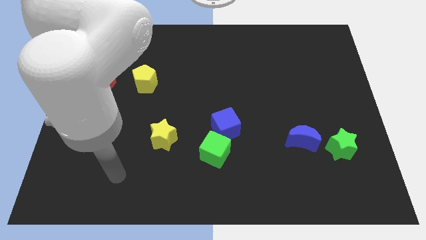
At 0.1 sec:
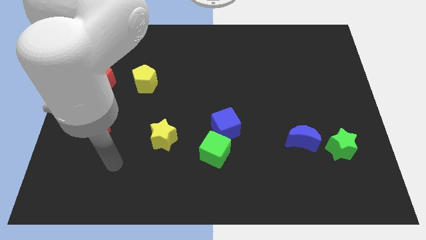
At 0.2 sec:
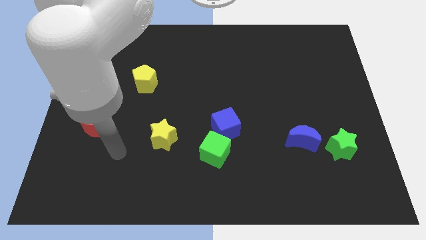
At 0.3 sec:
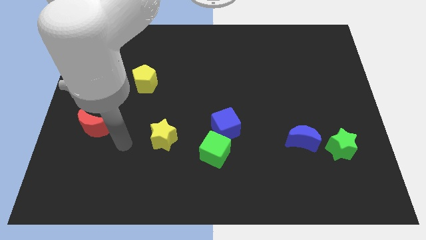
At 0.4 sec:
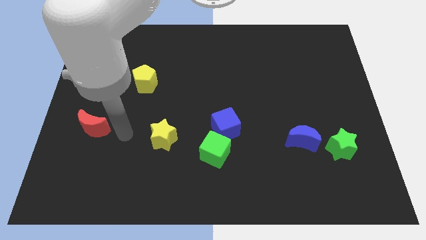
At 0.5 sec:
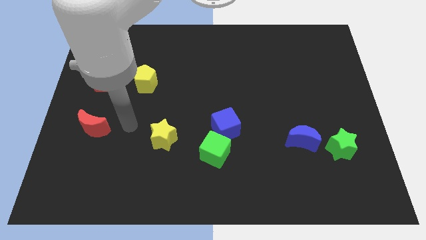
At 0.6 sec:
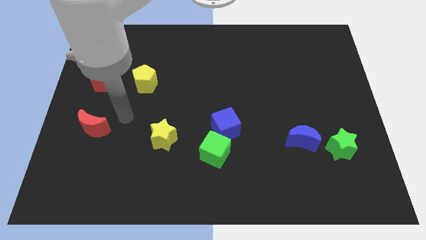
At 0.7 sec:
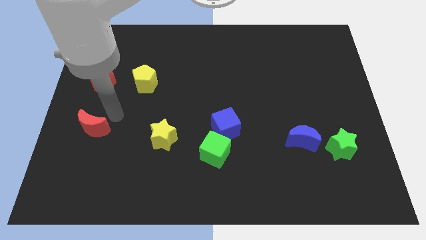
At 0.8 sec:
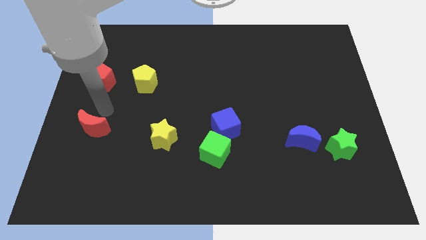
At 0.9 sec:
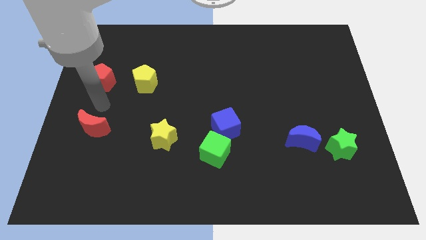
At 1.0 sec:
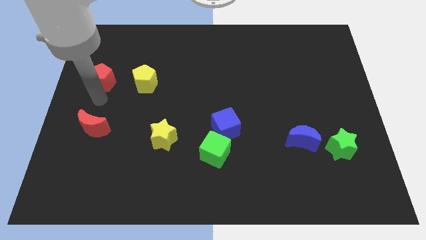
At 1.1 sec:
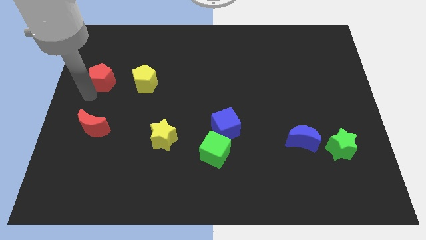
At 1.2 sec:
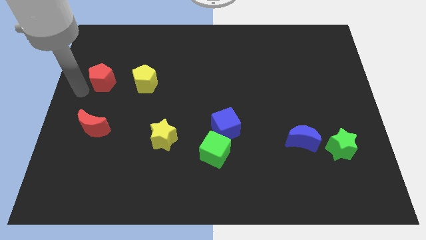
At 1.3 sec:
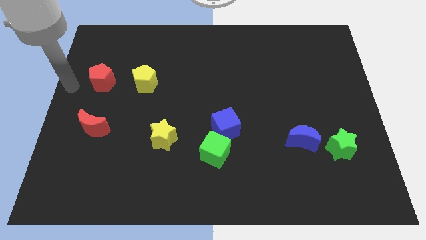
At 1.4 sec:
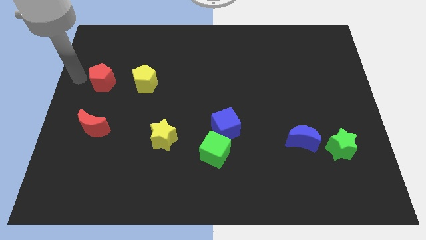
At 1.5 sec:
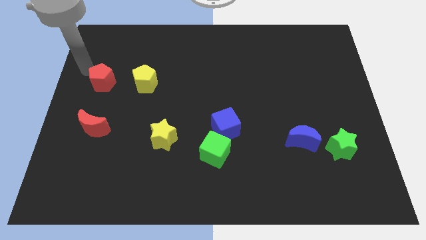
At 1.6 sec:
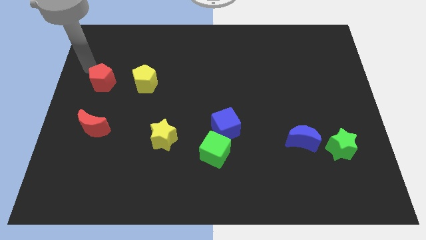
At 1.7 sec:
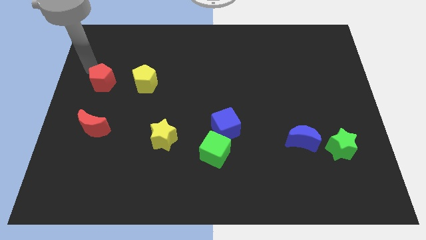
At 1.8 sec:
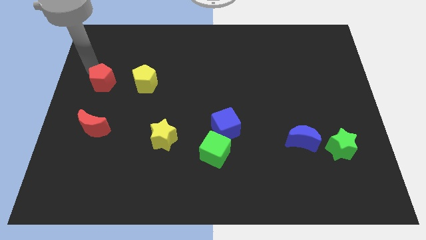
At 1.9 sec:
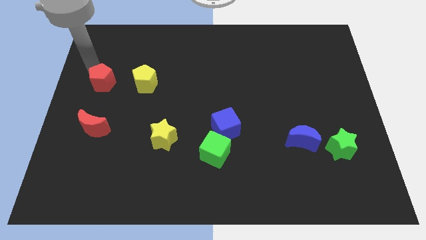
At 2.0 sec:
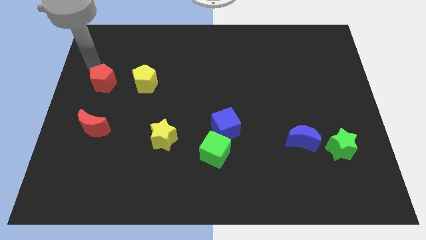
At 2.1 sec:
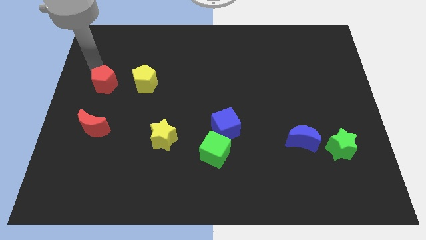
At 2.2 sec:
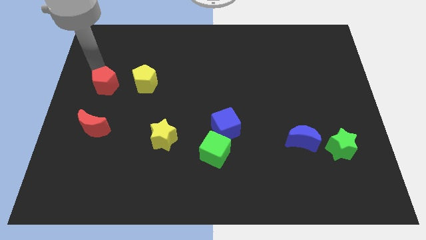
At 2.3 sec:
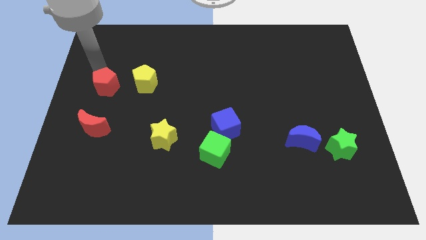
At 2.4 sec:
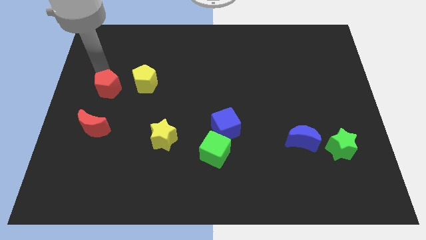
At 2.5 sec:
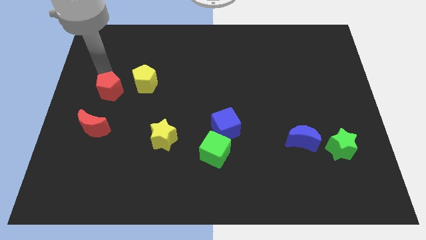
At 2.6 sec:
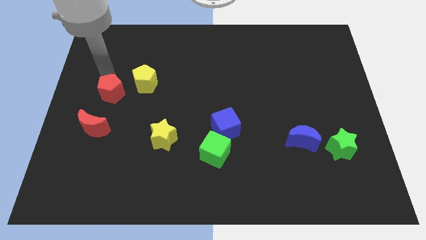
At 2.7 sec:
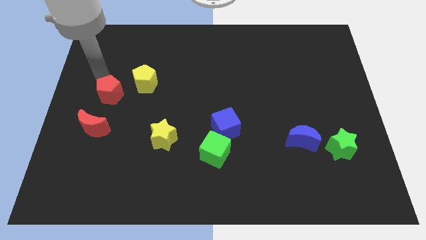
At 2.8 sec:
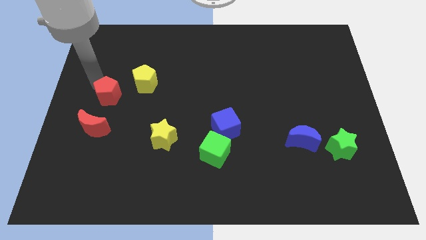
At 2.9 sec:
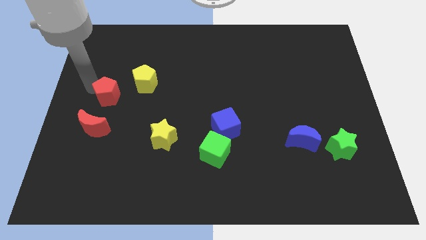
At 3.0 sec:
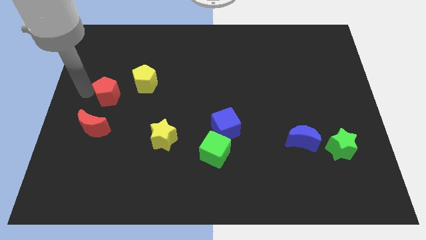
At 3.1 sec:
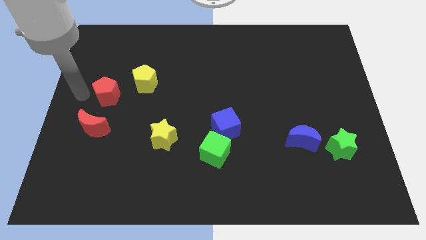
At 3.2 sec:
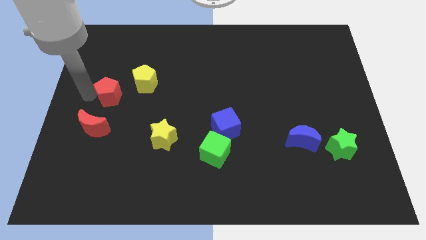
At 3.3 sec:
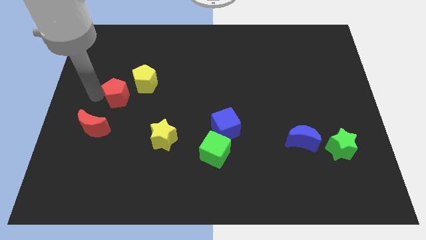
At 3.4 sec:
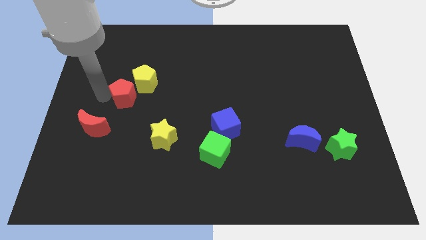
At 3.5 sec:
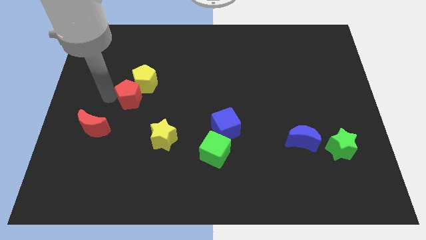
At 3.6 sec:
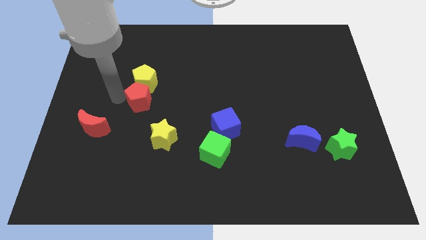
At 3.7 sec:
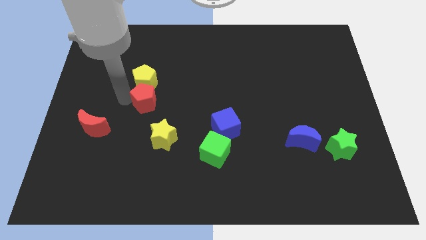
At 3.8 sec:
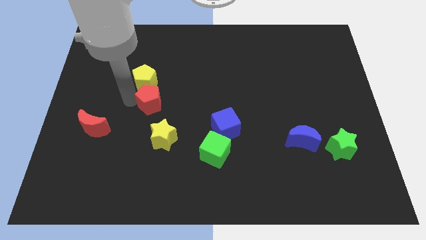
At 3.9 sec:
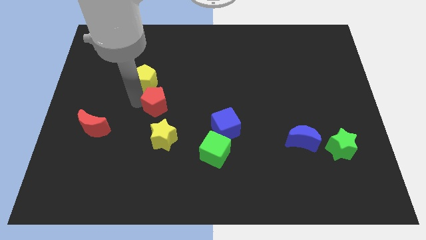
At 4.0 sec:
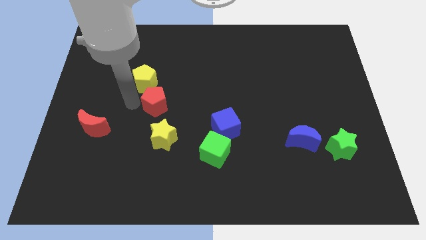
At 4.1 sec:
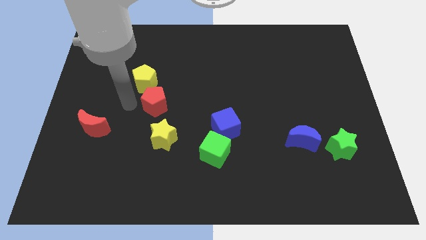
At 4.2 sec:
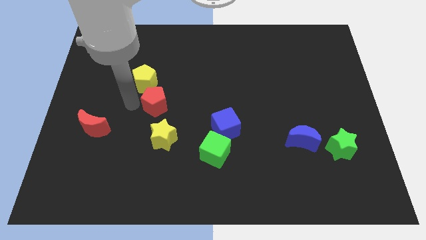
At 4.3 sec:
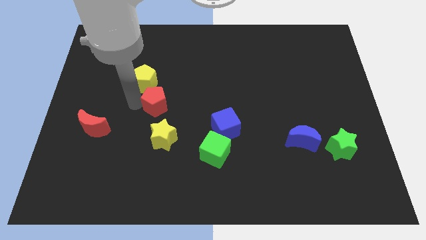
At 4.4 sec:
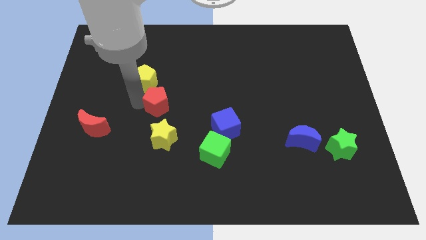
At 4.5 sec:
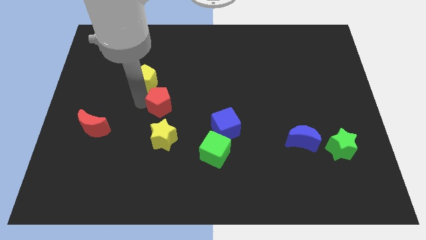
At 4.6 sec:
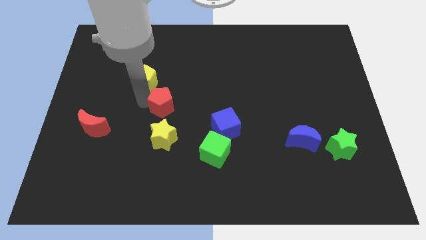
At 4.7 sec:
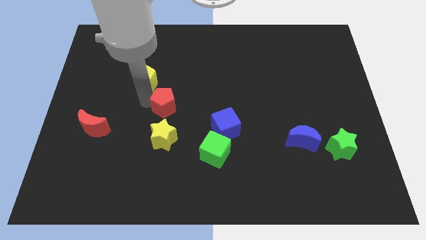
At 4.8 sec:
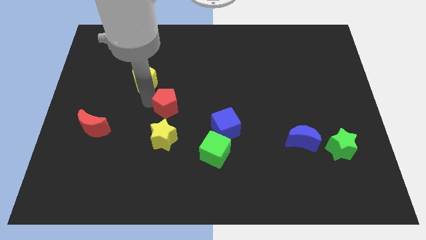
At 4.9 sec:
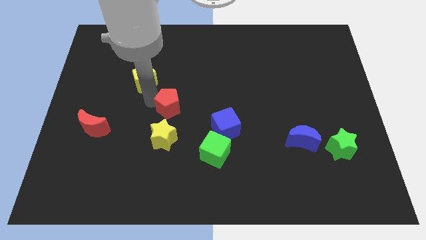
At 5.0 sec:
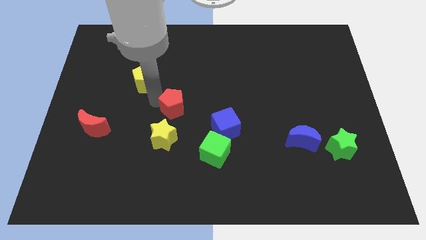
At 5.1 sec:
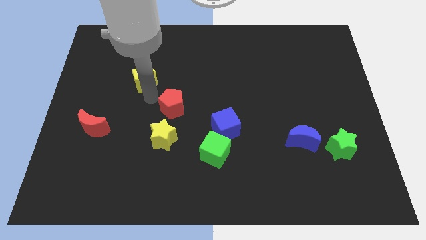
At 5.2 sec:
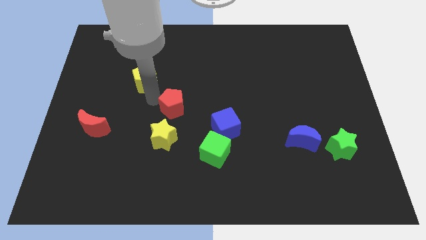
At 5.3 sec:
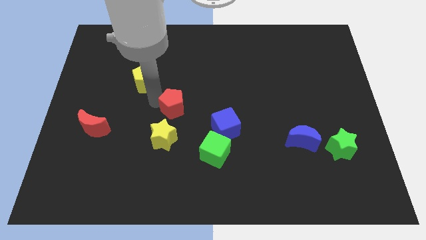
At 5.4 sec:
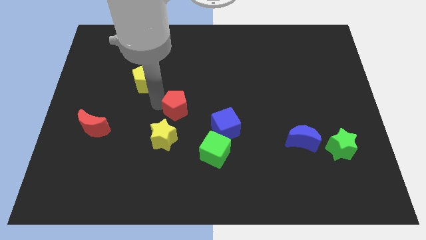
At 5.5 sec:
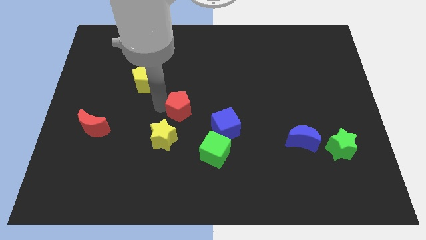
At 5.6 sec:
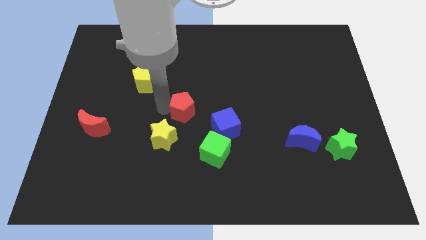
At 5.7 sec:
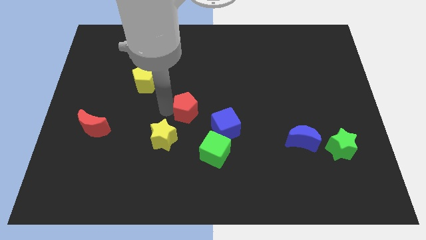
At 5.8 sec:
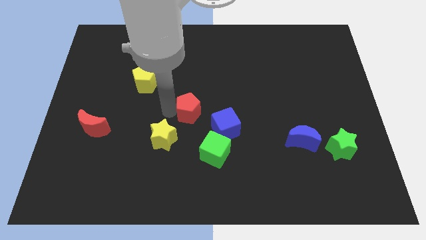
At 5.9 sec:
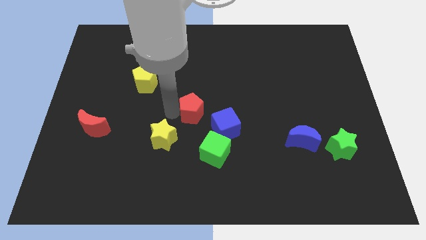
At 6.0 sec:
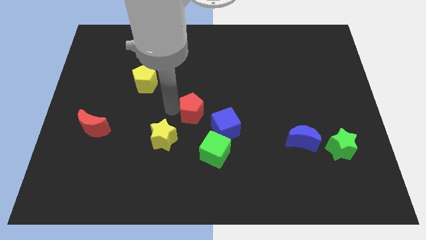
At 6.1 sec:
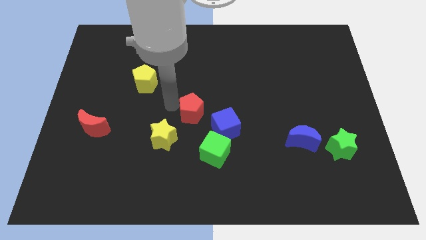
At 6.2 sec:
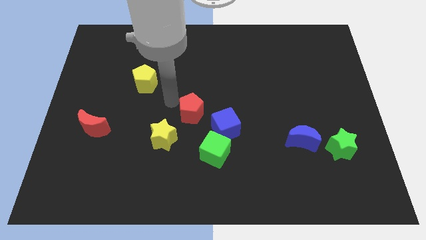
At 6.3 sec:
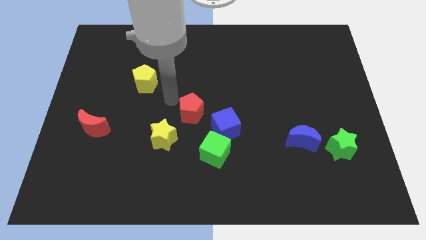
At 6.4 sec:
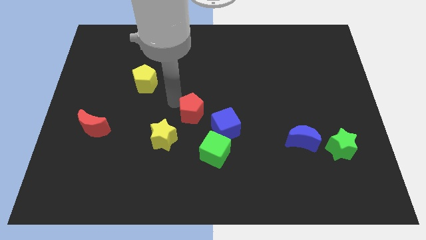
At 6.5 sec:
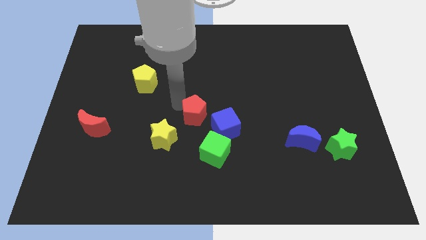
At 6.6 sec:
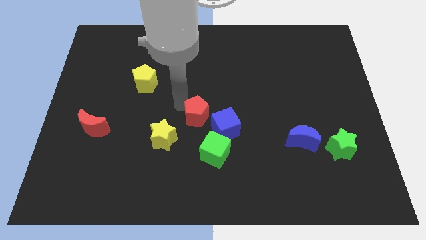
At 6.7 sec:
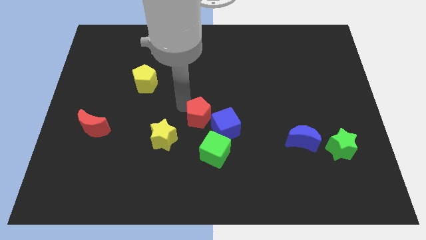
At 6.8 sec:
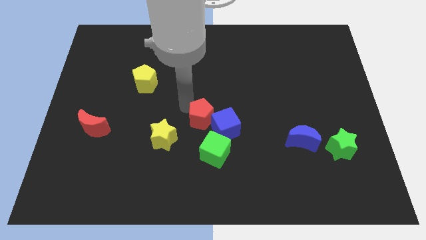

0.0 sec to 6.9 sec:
put the red pentagon next to the blue cube

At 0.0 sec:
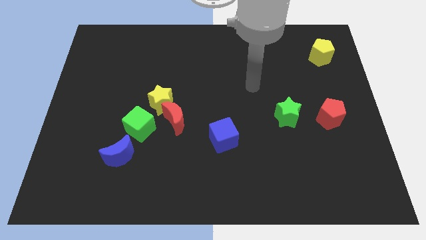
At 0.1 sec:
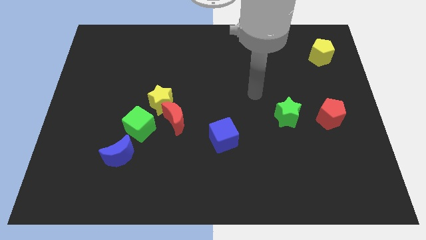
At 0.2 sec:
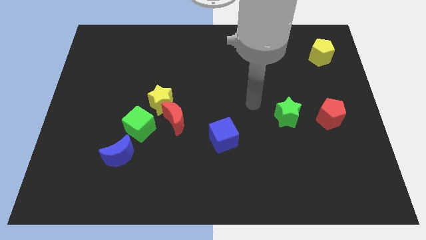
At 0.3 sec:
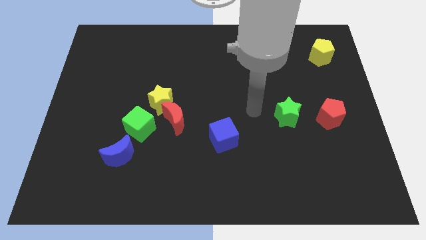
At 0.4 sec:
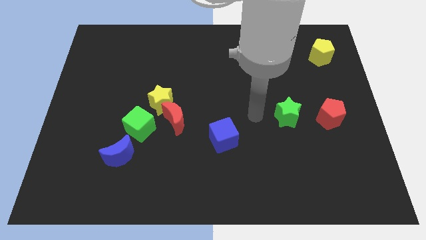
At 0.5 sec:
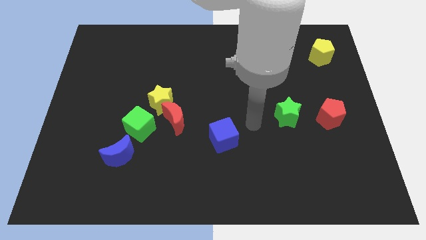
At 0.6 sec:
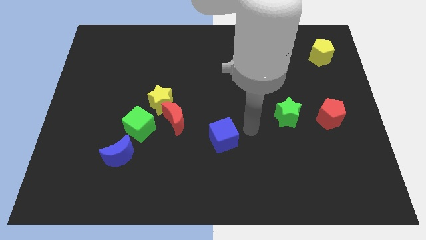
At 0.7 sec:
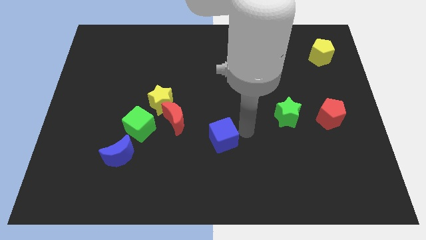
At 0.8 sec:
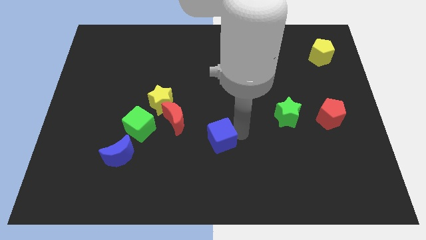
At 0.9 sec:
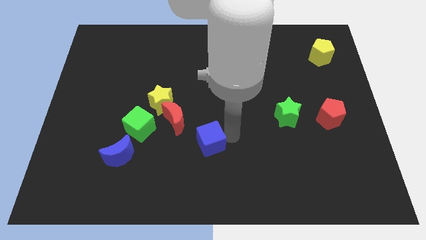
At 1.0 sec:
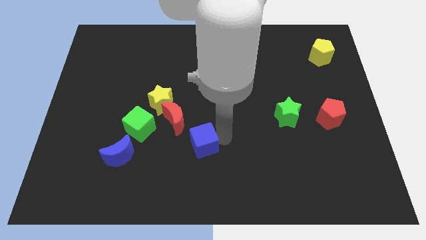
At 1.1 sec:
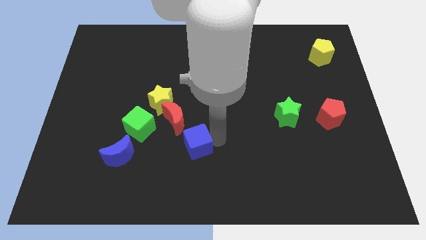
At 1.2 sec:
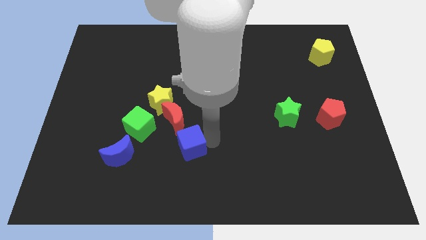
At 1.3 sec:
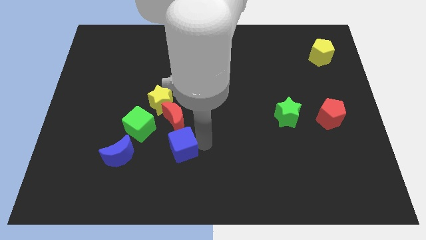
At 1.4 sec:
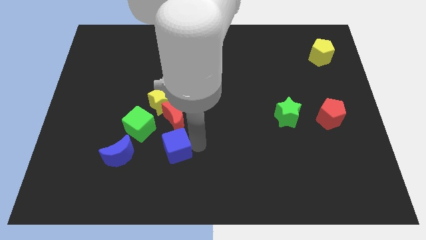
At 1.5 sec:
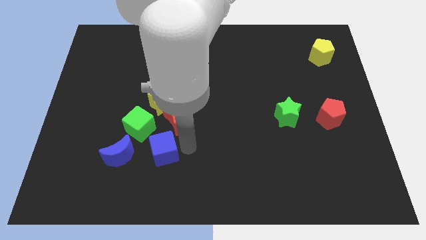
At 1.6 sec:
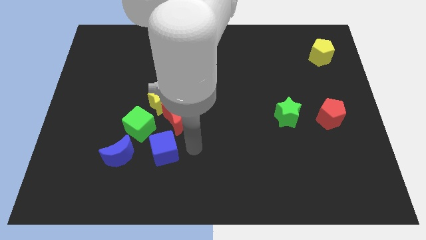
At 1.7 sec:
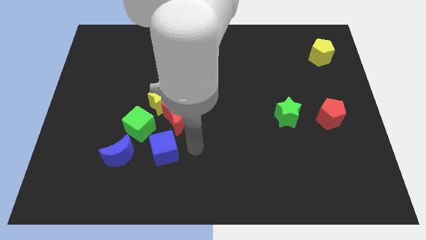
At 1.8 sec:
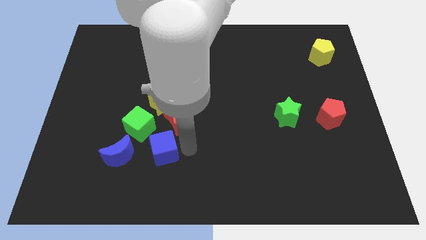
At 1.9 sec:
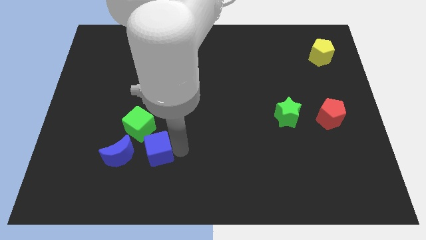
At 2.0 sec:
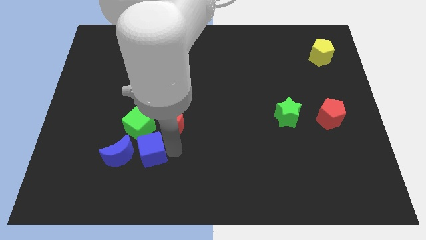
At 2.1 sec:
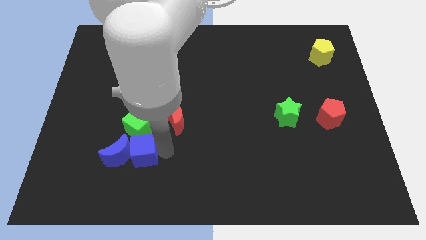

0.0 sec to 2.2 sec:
slide the blue cube close to the blue moon
